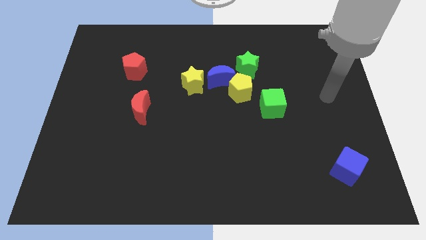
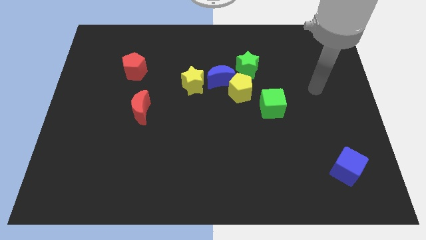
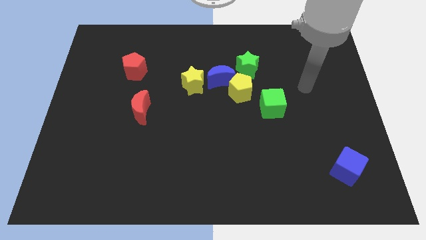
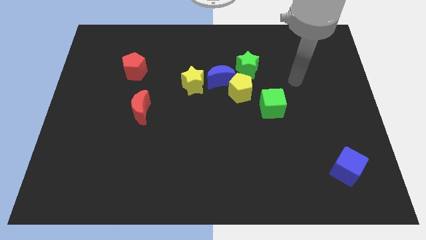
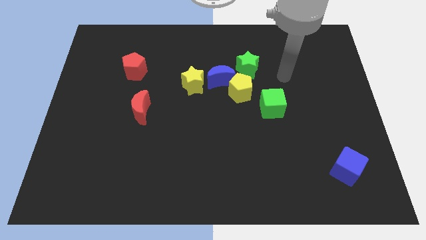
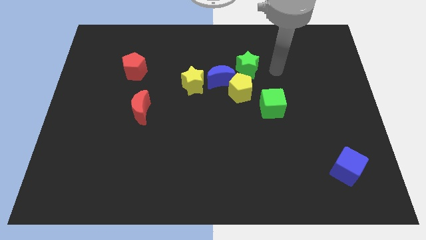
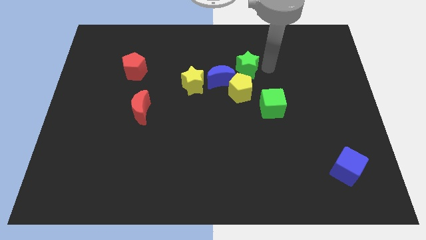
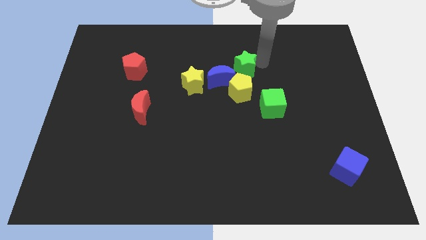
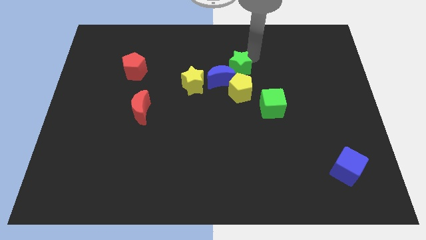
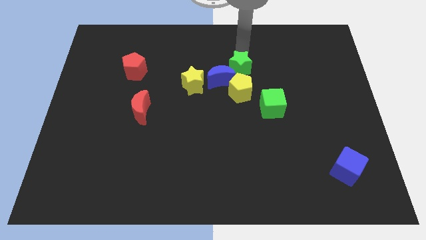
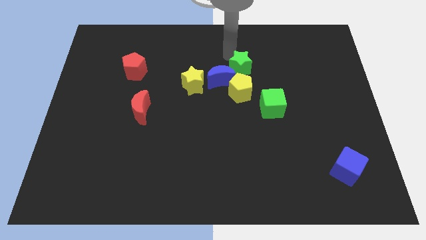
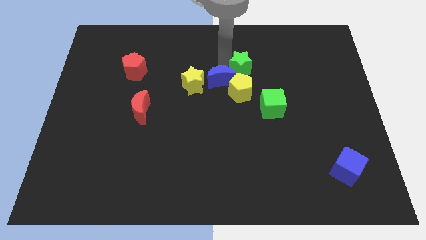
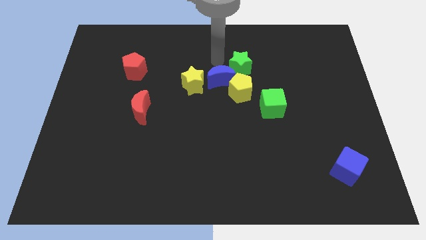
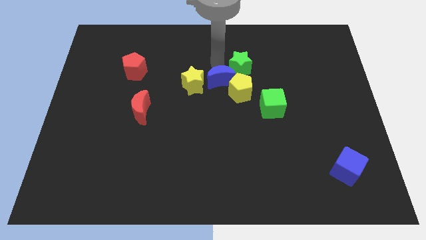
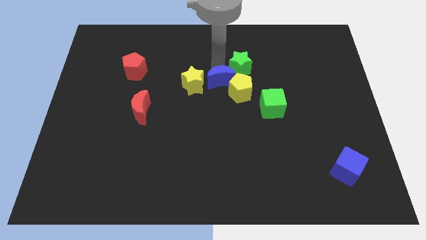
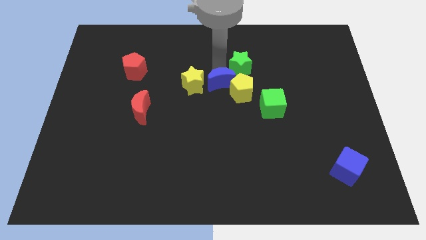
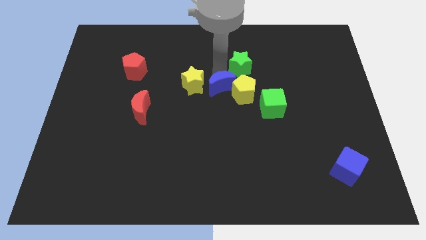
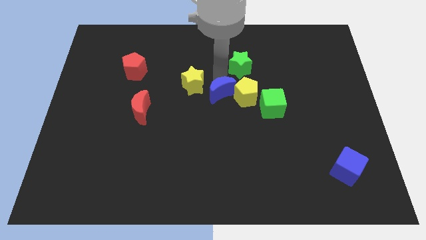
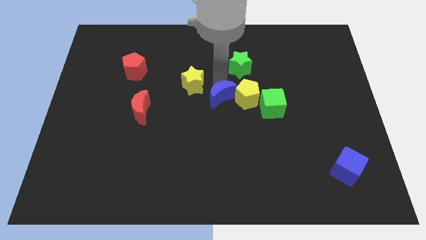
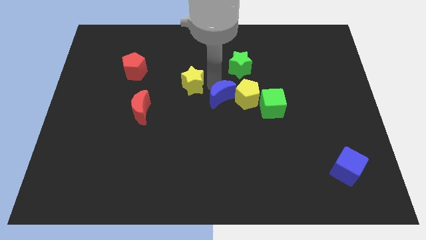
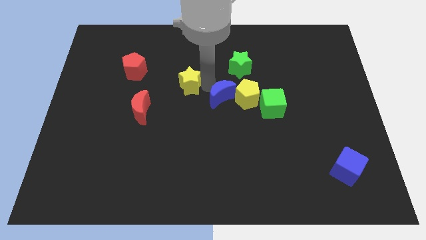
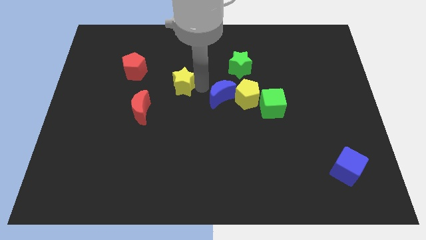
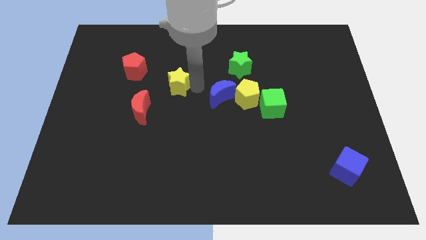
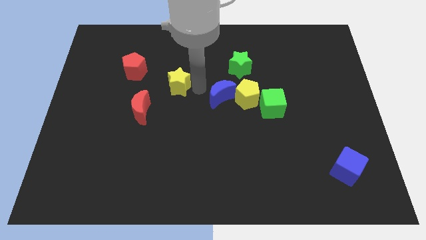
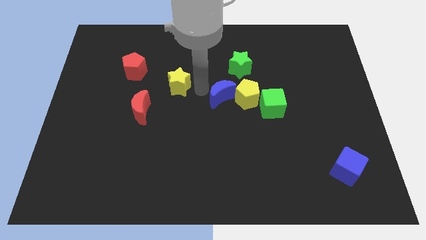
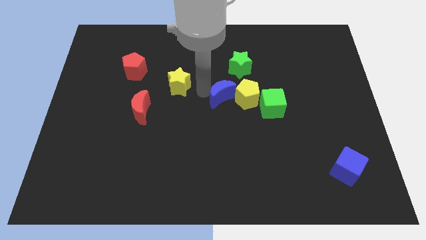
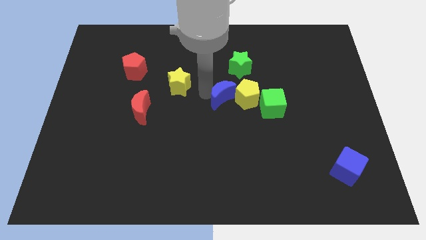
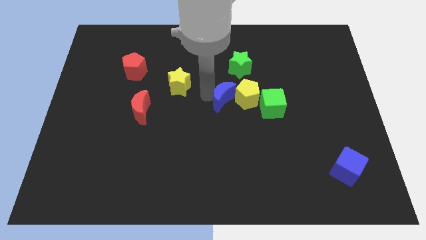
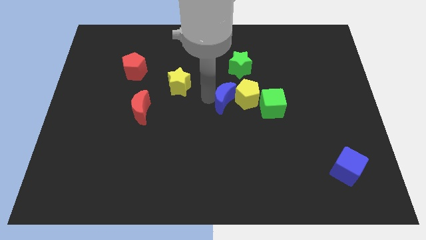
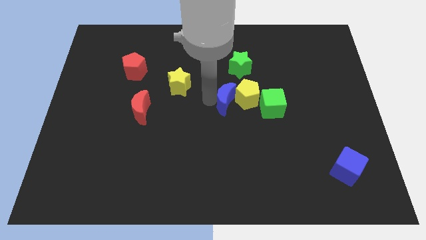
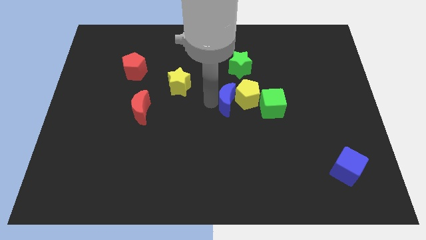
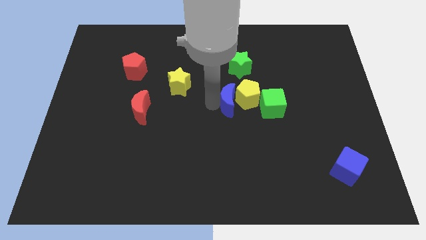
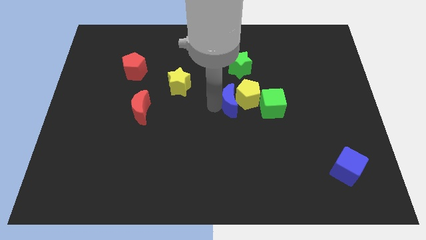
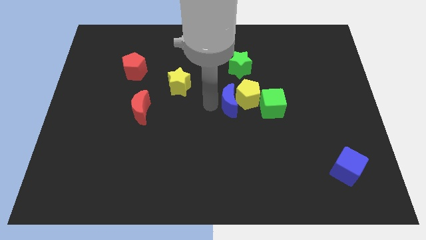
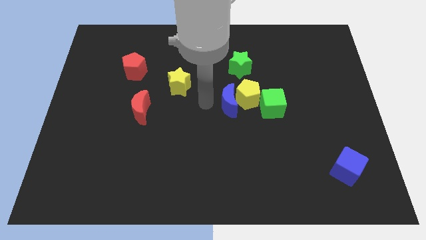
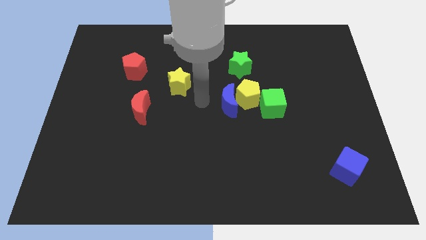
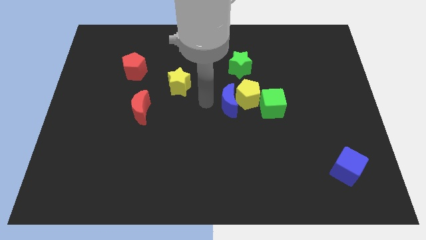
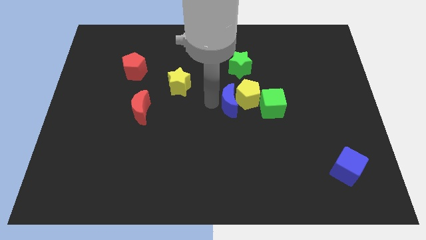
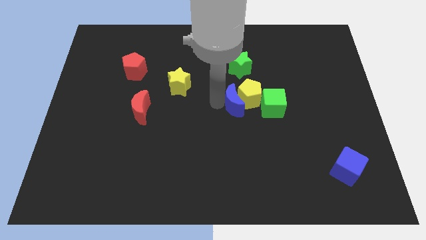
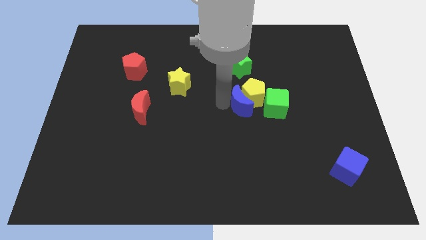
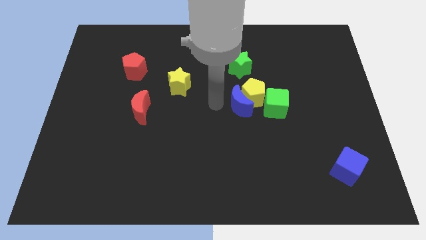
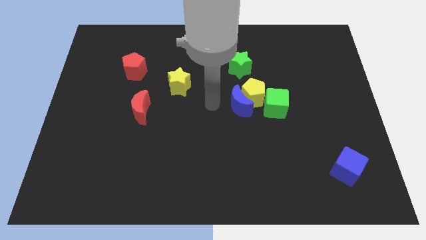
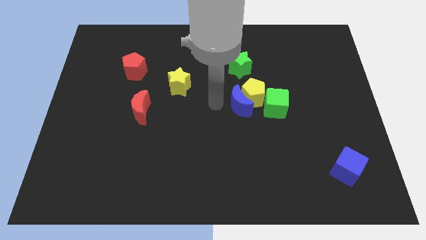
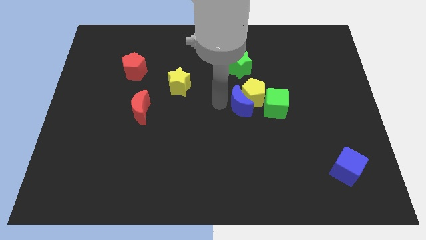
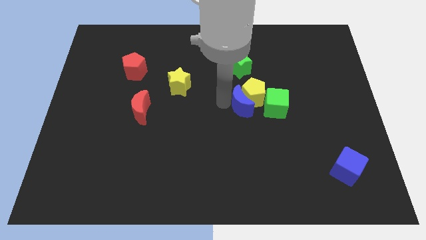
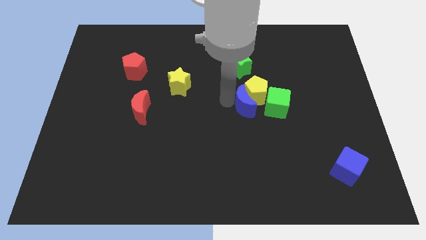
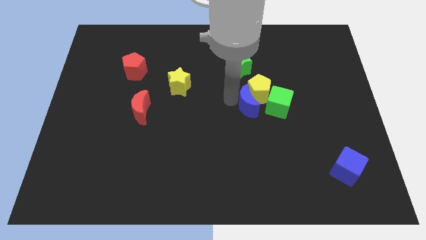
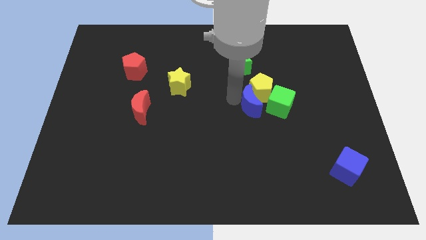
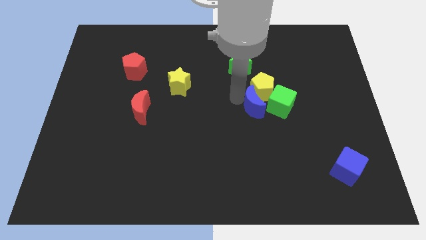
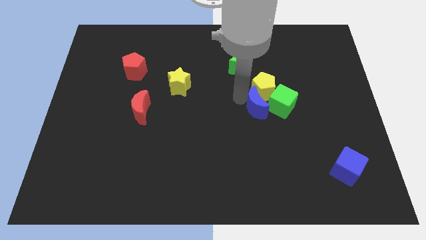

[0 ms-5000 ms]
slide the blue moon close to the green cube

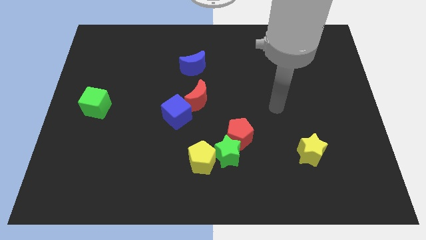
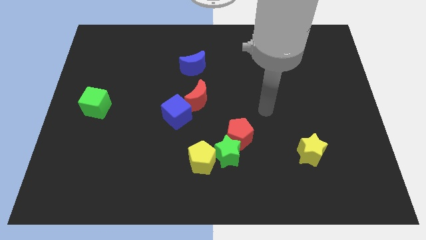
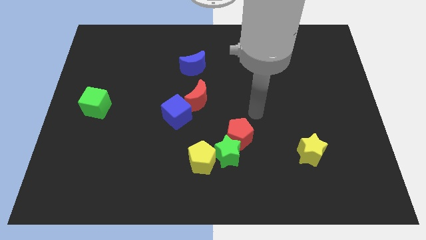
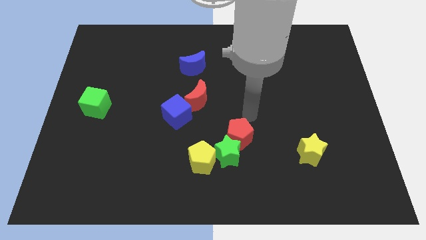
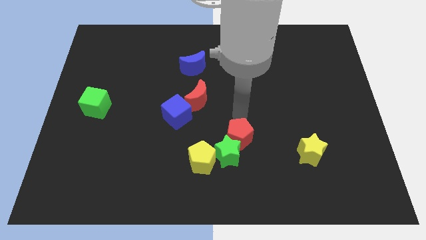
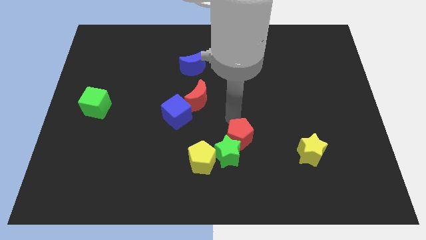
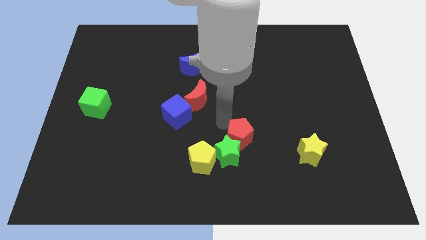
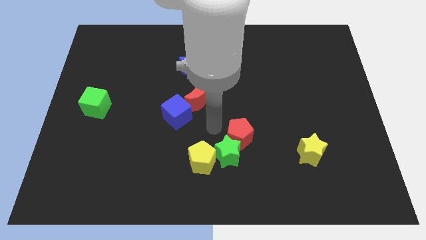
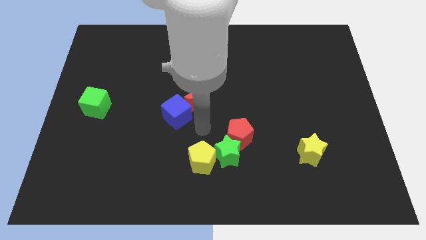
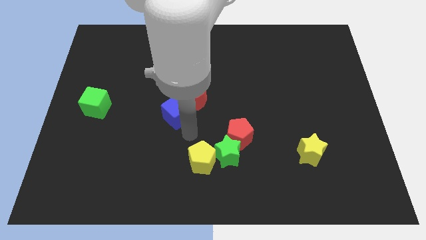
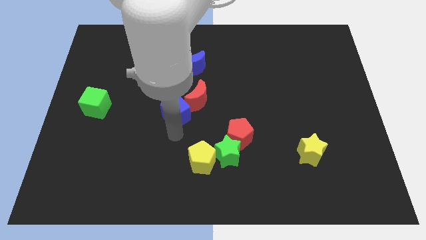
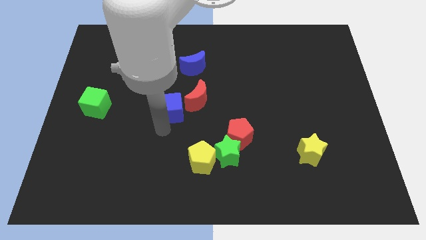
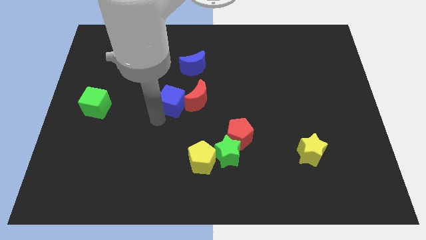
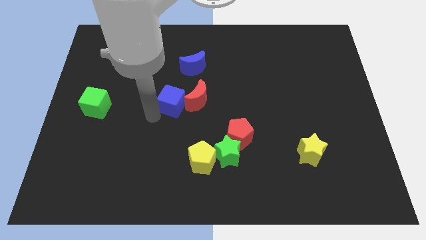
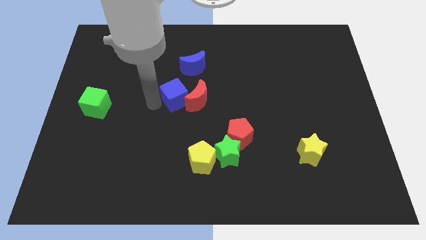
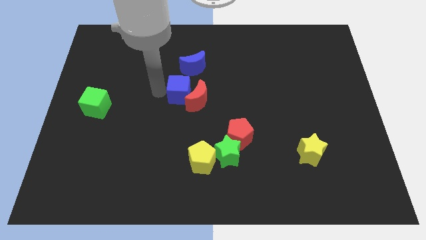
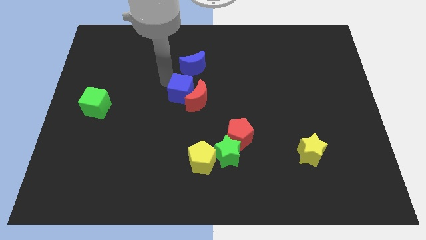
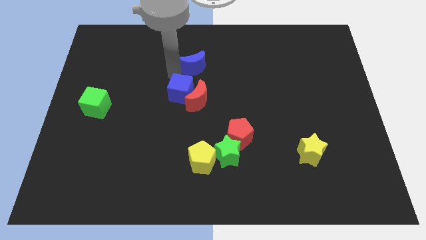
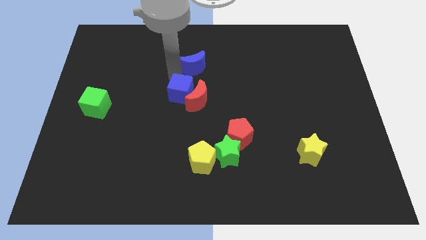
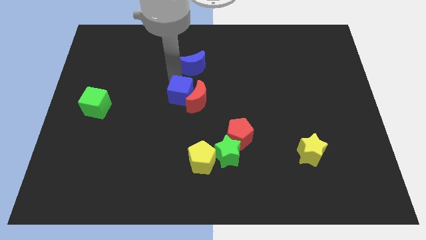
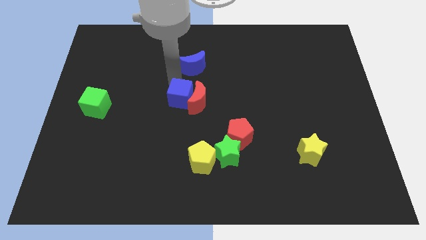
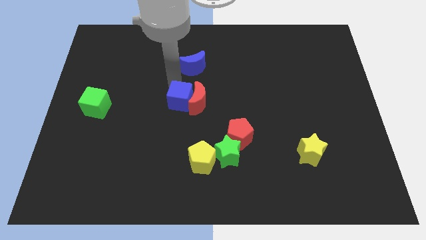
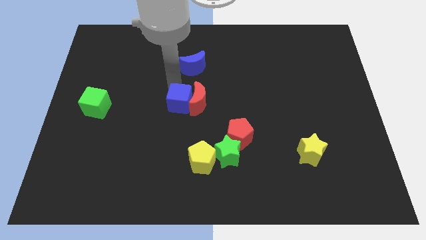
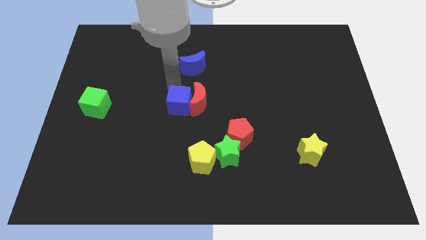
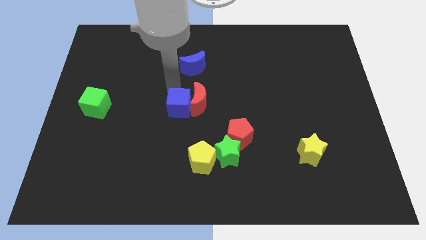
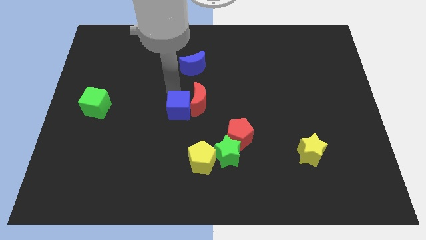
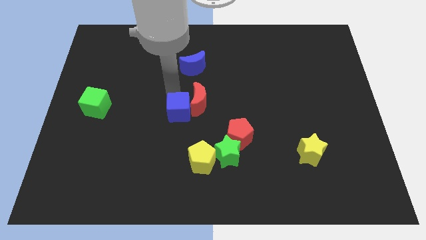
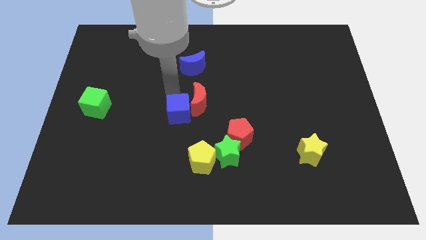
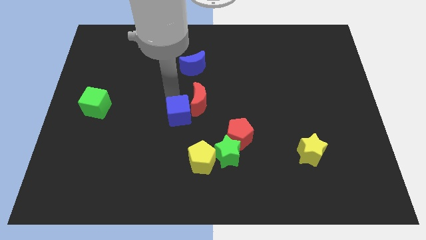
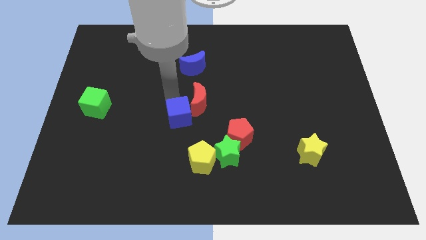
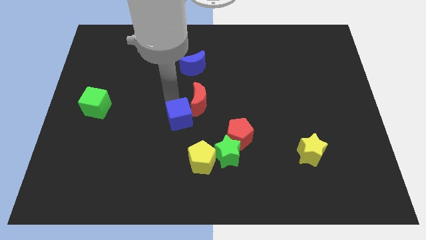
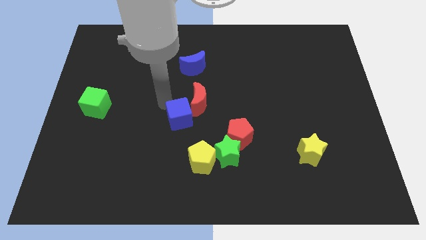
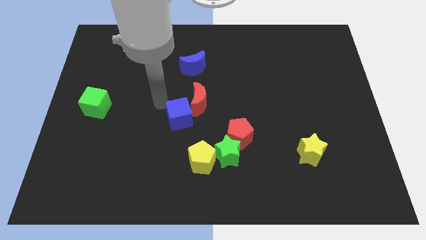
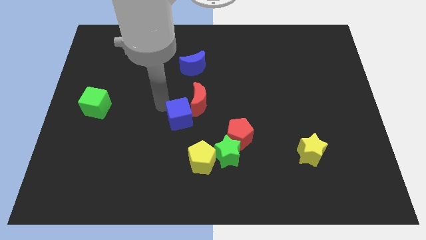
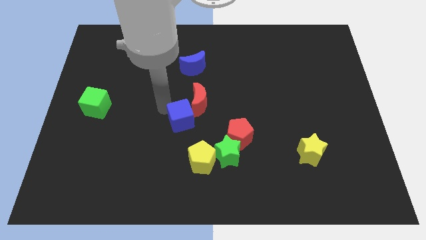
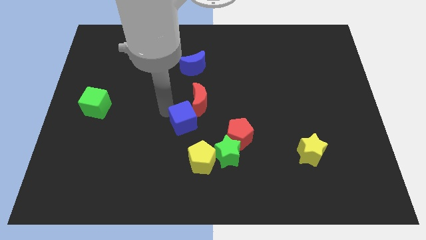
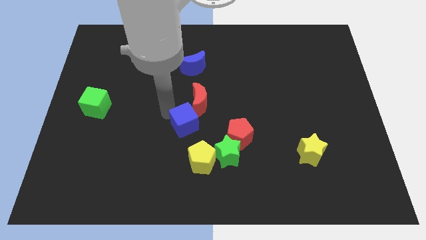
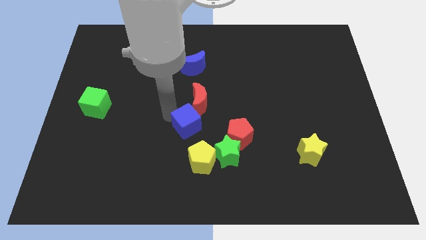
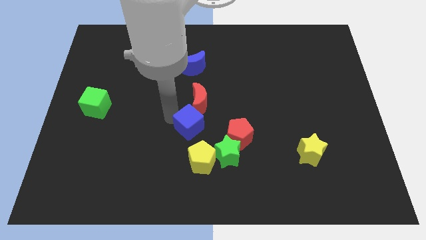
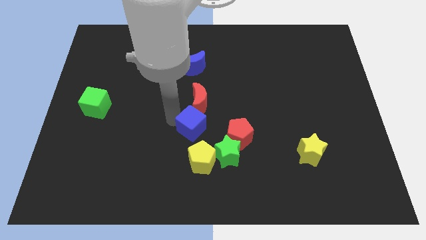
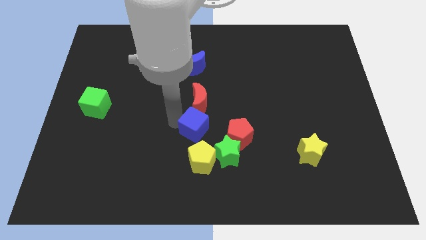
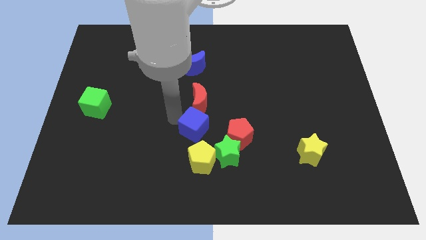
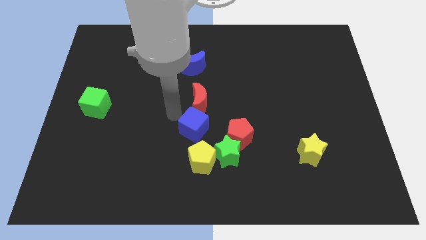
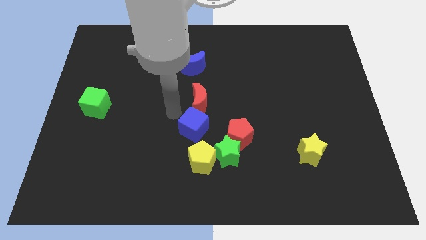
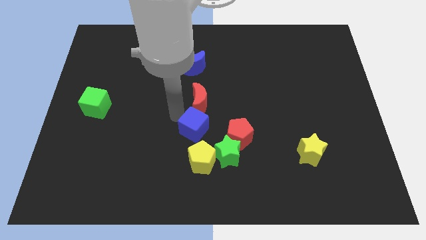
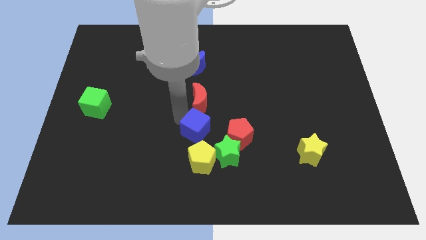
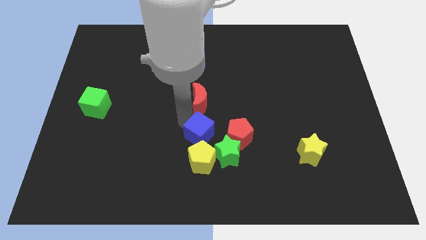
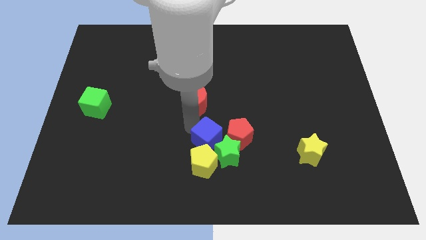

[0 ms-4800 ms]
put the blue cube towards the green star
